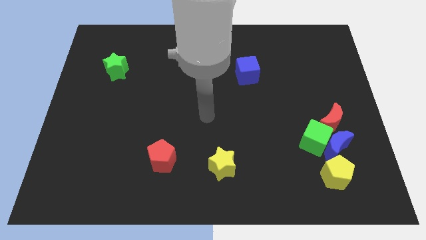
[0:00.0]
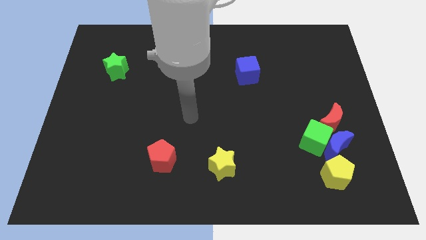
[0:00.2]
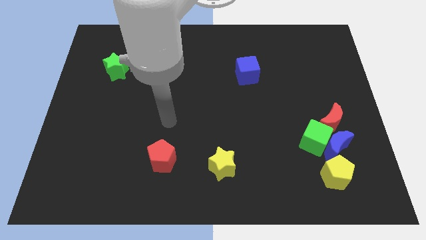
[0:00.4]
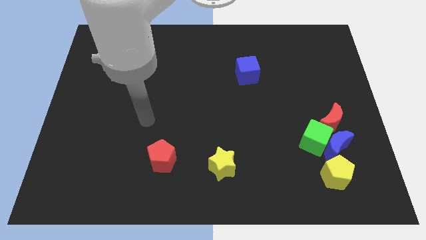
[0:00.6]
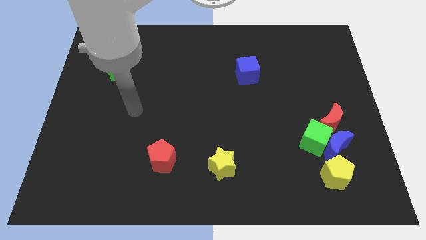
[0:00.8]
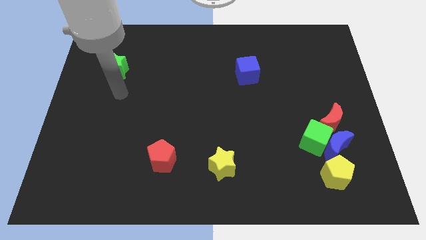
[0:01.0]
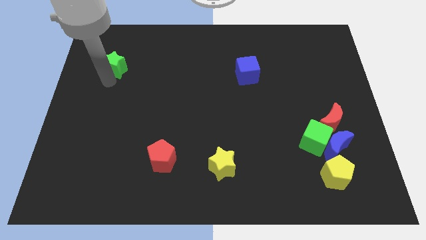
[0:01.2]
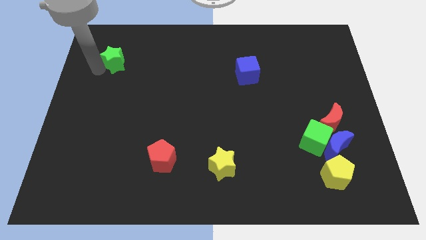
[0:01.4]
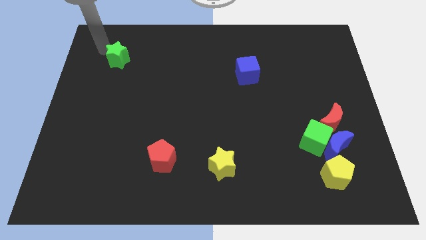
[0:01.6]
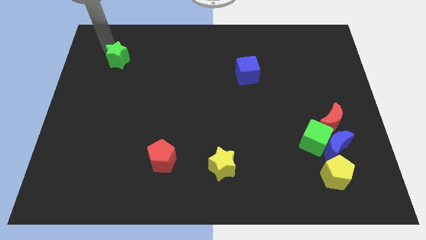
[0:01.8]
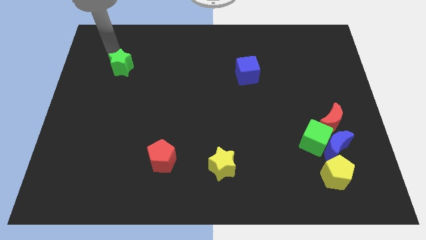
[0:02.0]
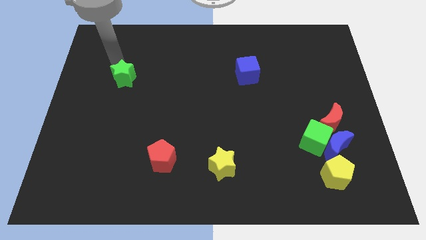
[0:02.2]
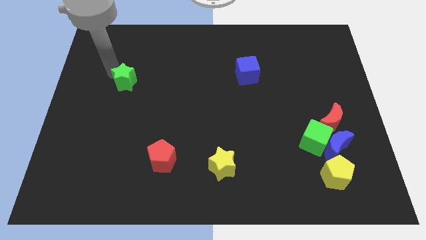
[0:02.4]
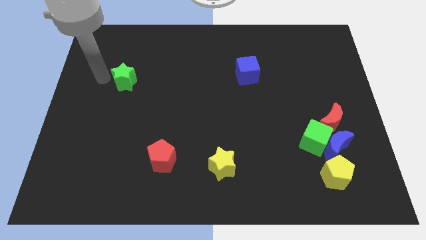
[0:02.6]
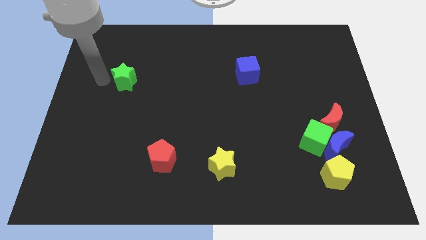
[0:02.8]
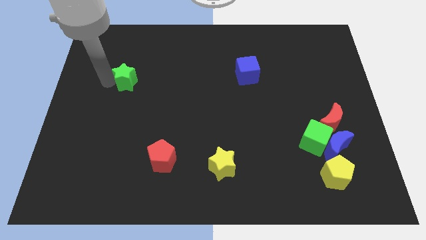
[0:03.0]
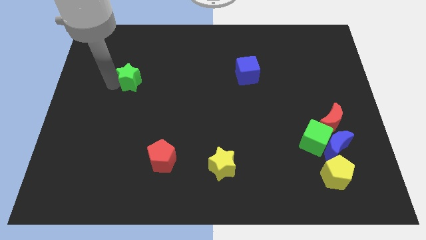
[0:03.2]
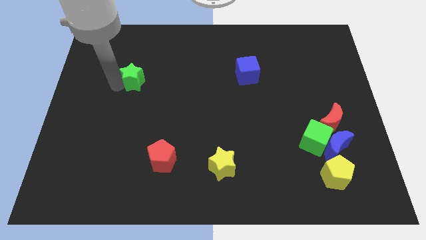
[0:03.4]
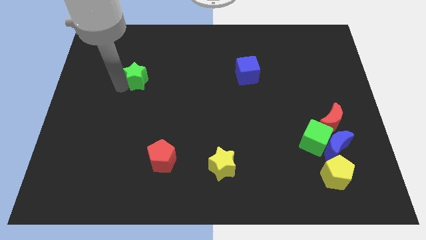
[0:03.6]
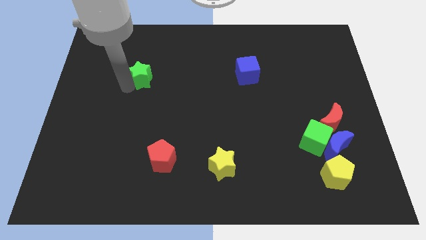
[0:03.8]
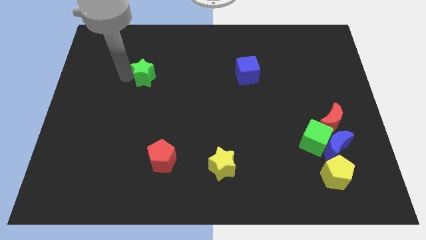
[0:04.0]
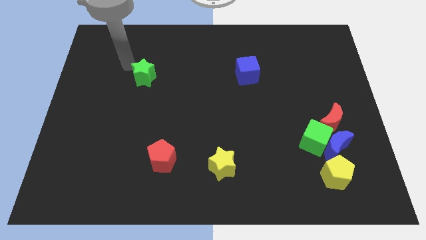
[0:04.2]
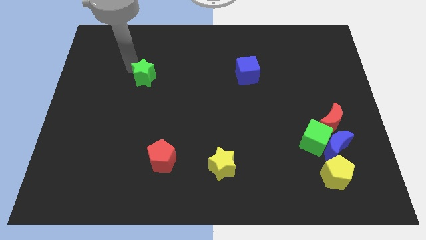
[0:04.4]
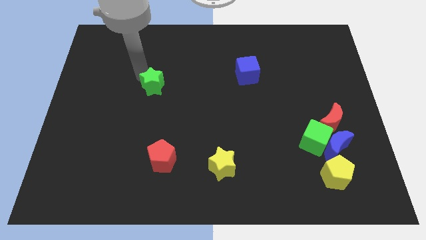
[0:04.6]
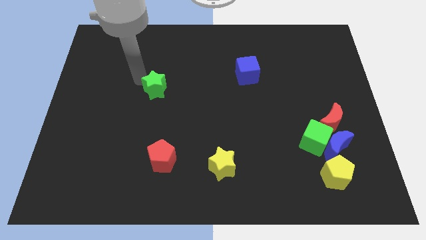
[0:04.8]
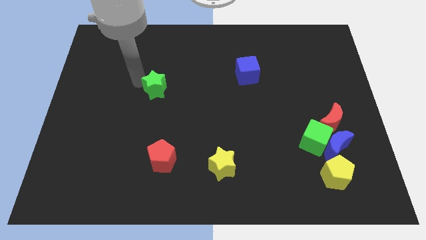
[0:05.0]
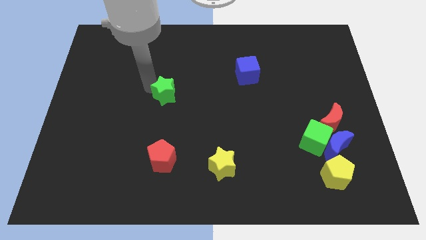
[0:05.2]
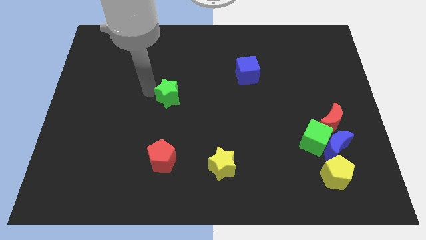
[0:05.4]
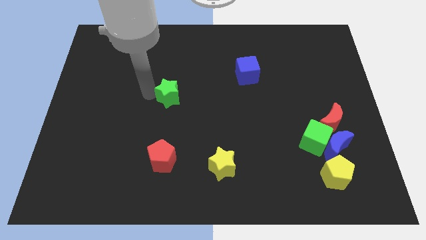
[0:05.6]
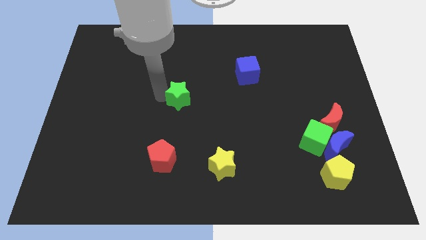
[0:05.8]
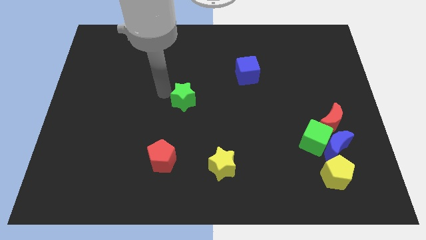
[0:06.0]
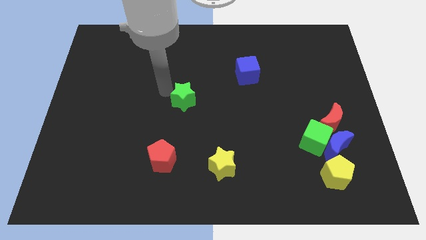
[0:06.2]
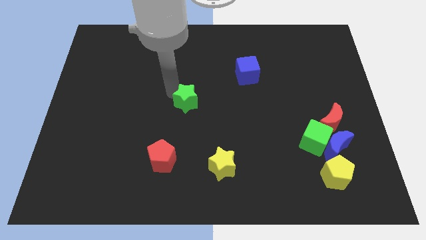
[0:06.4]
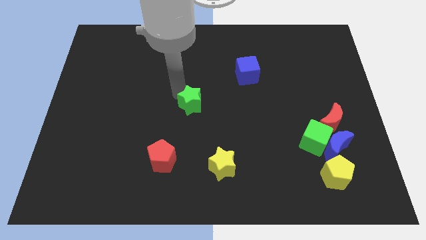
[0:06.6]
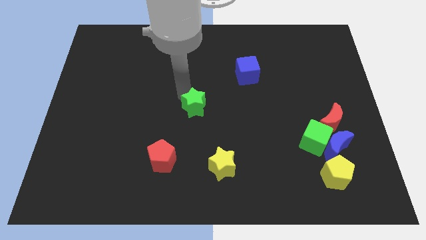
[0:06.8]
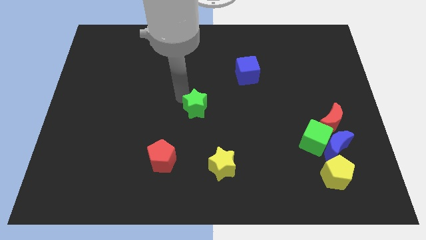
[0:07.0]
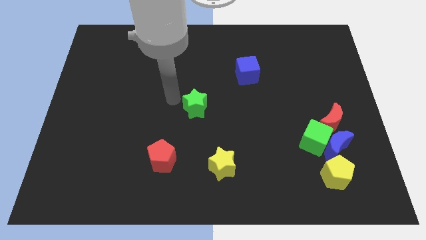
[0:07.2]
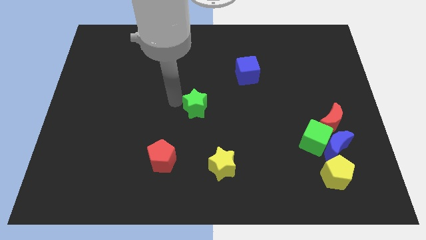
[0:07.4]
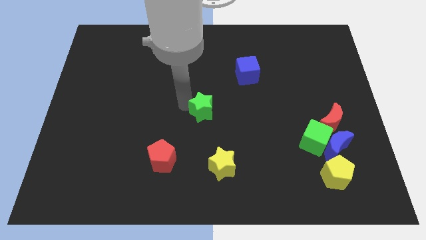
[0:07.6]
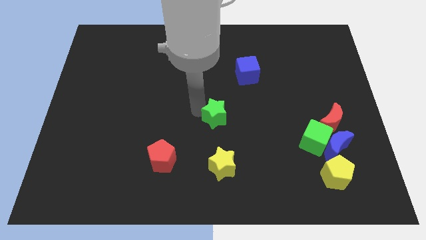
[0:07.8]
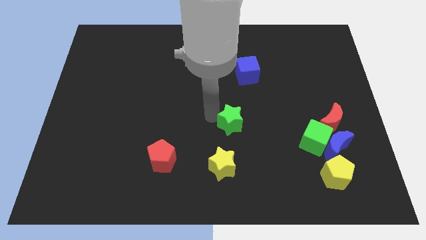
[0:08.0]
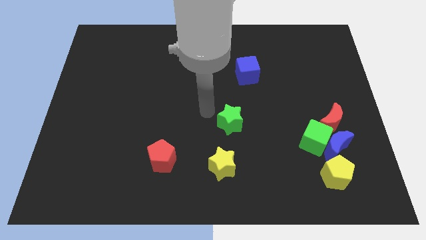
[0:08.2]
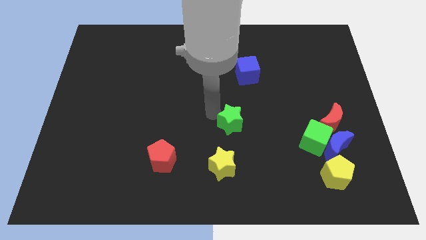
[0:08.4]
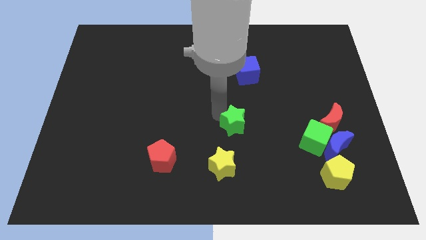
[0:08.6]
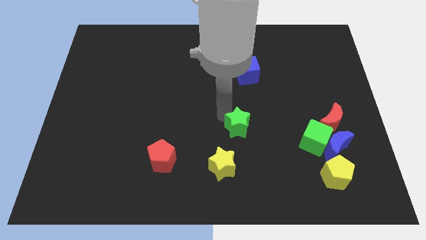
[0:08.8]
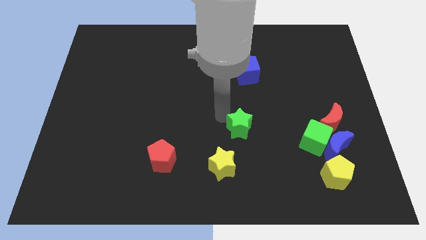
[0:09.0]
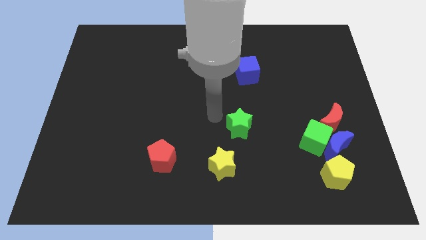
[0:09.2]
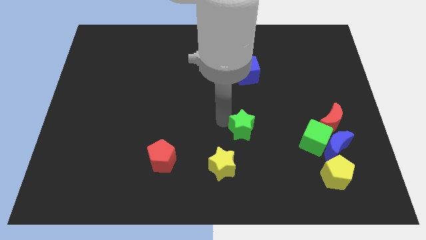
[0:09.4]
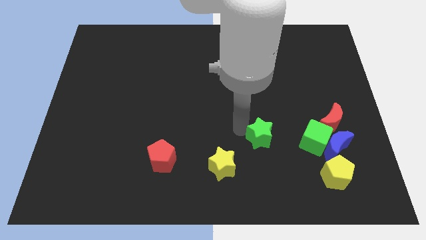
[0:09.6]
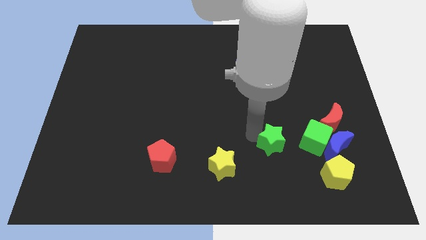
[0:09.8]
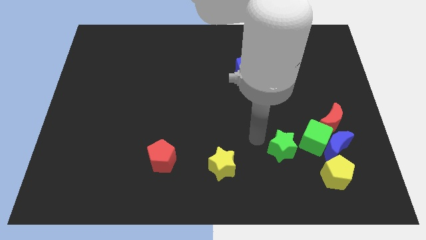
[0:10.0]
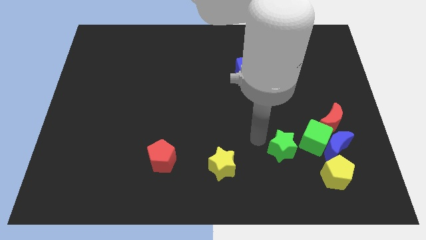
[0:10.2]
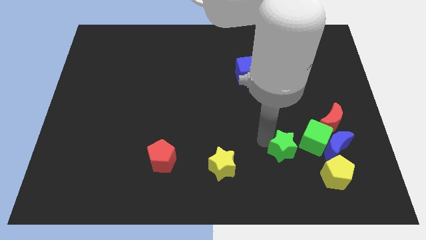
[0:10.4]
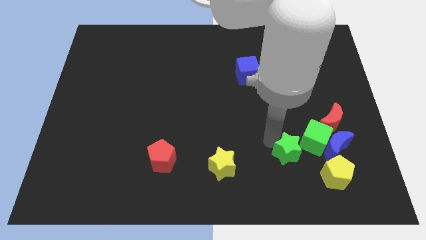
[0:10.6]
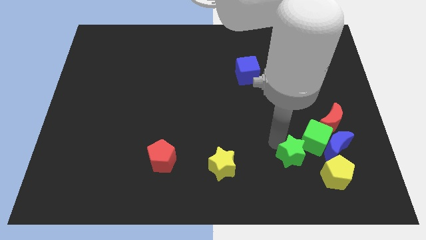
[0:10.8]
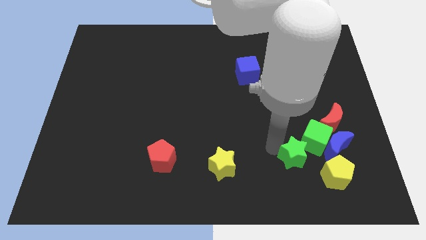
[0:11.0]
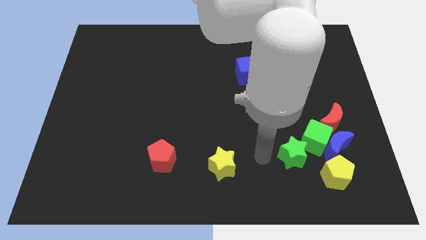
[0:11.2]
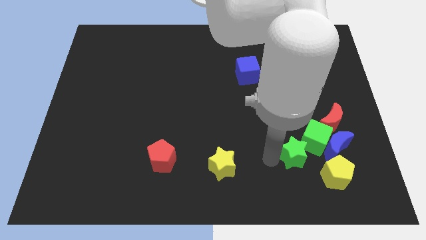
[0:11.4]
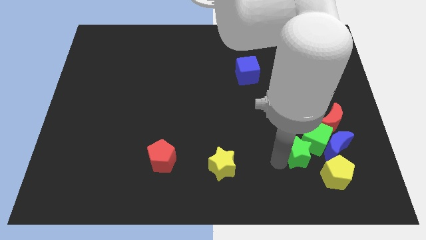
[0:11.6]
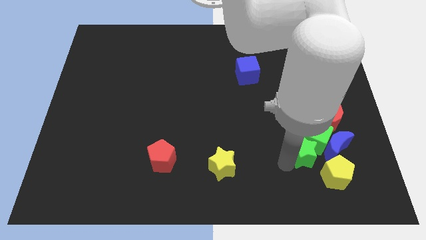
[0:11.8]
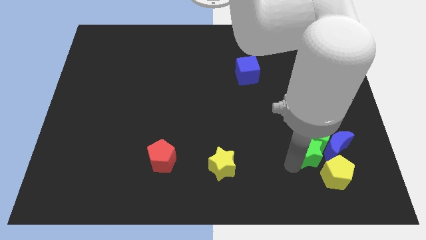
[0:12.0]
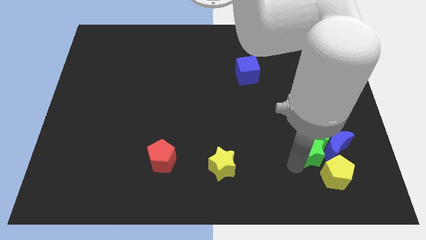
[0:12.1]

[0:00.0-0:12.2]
put the green star towards the blue moon

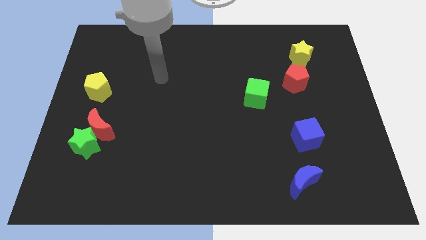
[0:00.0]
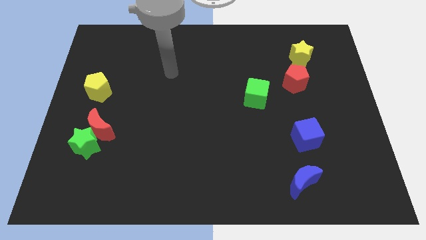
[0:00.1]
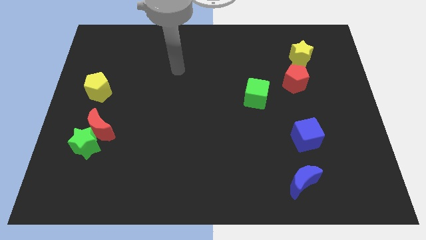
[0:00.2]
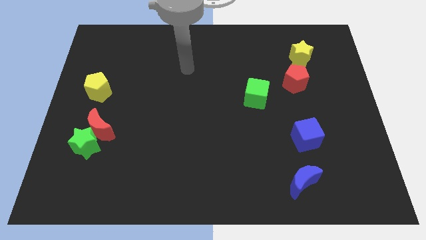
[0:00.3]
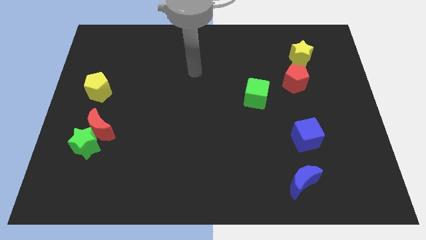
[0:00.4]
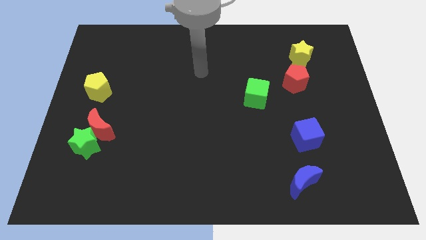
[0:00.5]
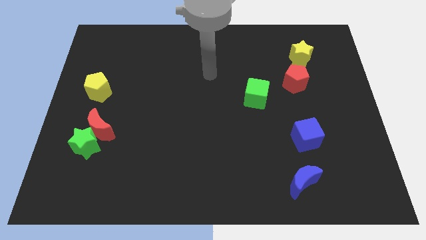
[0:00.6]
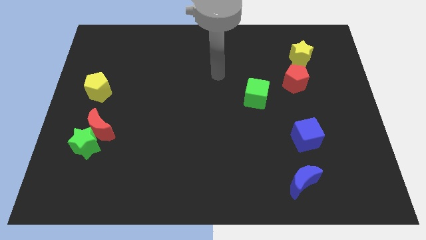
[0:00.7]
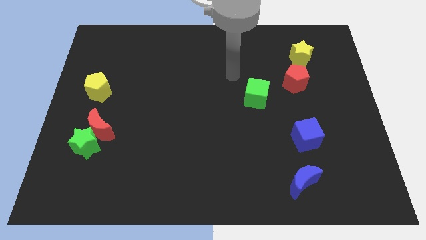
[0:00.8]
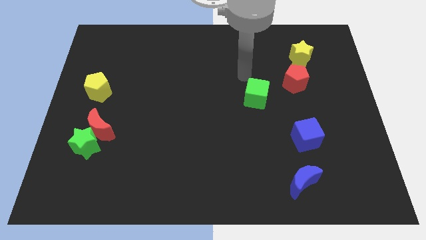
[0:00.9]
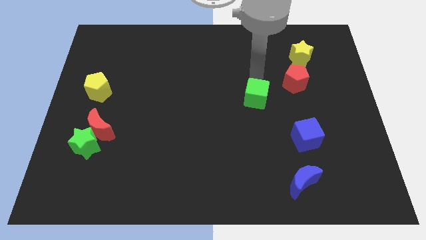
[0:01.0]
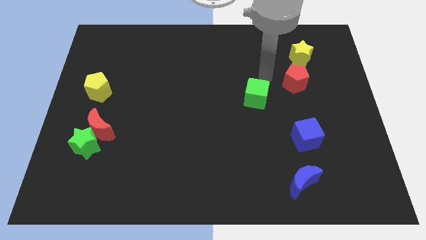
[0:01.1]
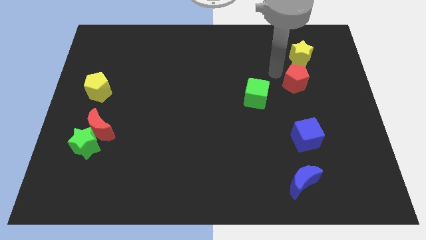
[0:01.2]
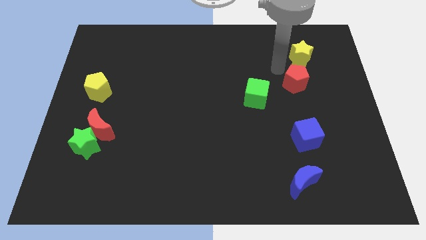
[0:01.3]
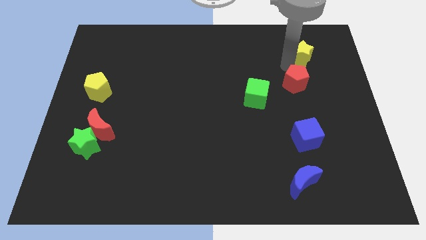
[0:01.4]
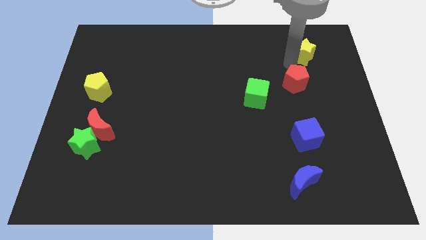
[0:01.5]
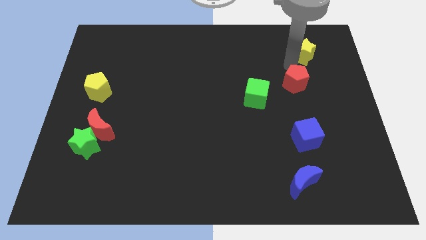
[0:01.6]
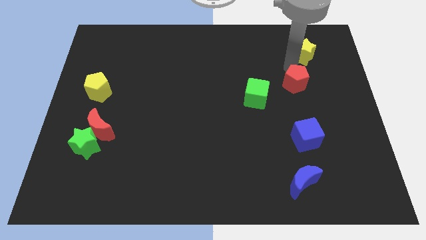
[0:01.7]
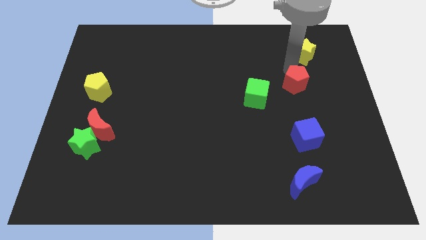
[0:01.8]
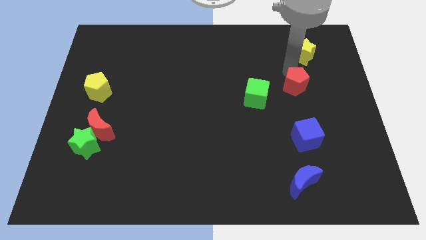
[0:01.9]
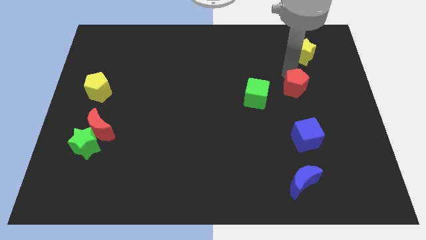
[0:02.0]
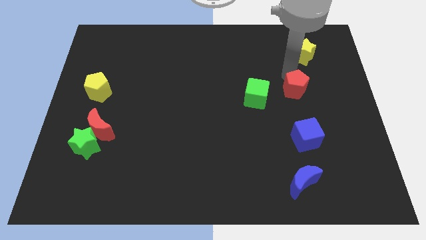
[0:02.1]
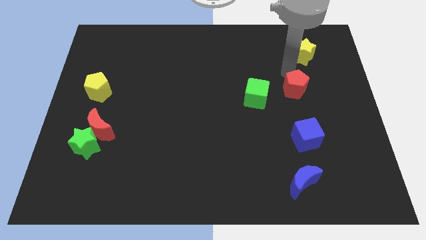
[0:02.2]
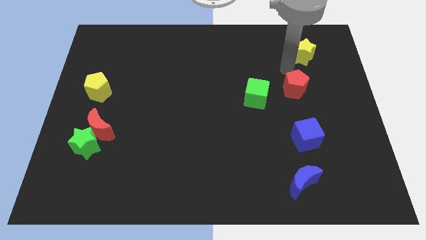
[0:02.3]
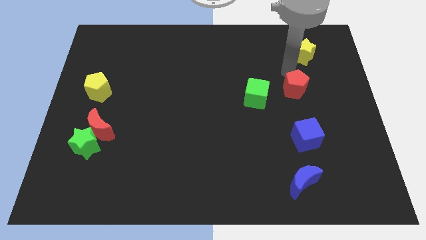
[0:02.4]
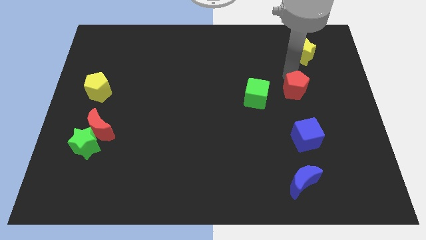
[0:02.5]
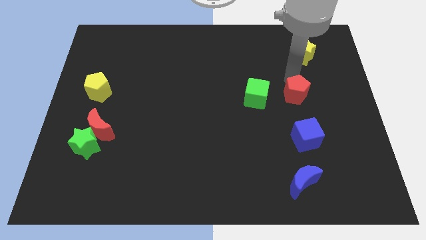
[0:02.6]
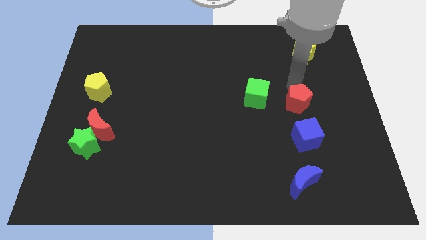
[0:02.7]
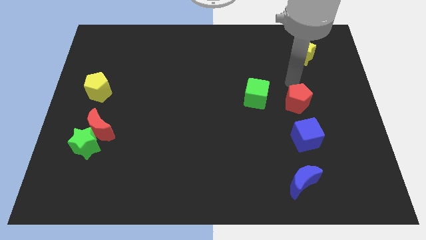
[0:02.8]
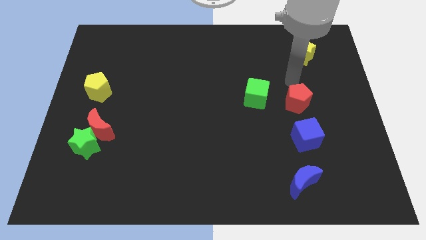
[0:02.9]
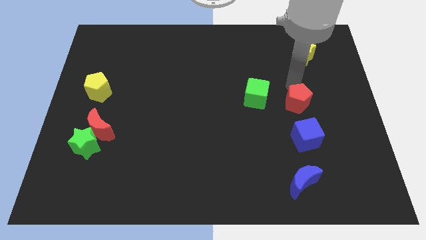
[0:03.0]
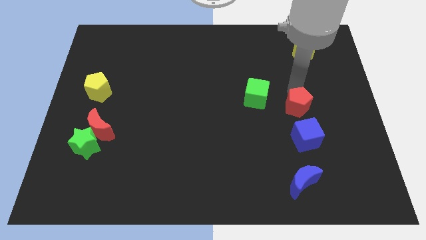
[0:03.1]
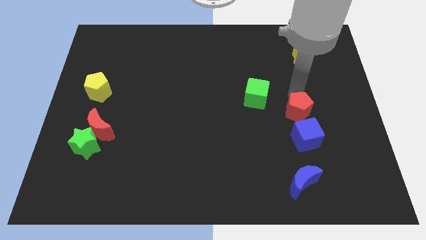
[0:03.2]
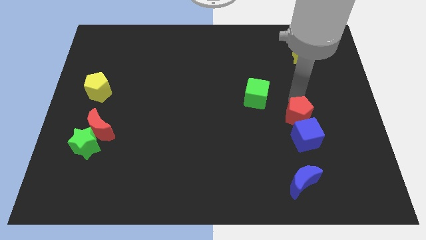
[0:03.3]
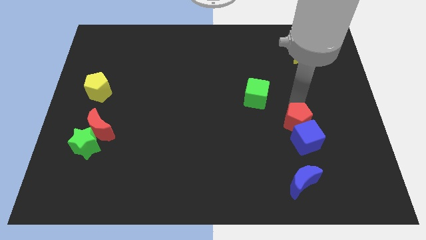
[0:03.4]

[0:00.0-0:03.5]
push the red pentagon close to the blue cube
